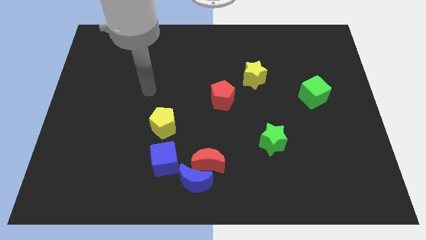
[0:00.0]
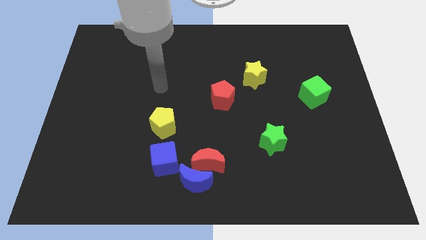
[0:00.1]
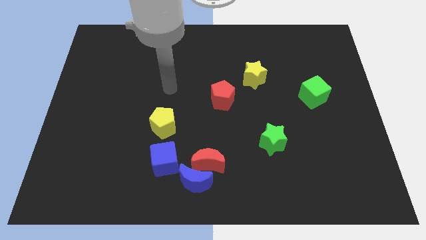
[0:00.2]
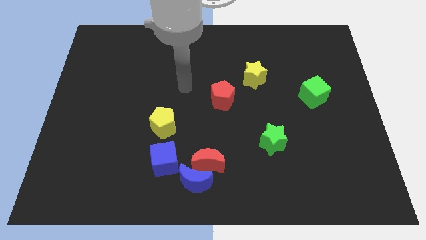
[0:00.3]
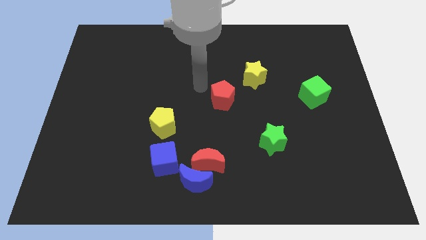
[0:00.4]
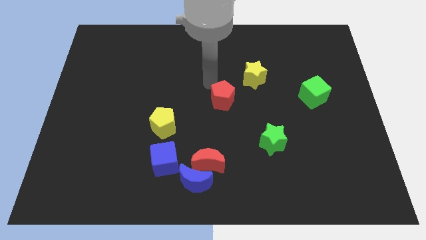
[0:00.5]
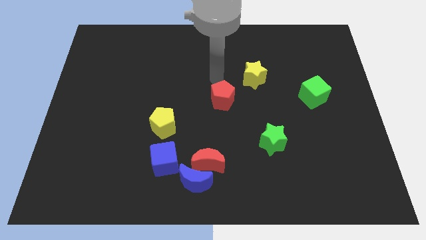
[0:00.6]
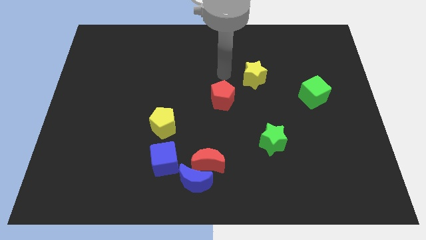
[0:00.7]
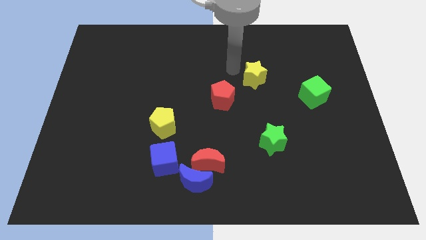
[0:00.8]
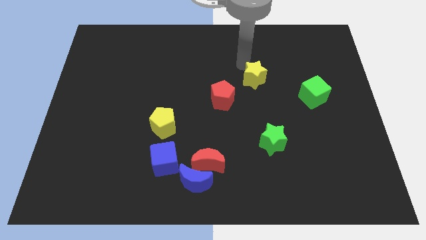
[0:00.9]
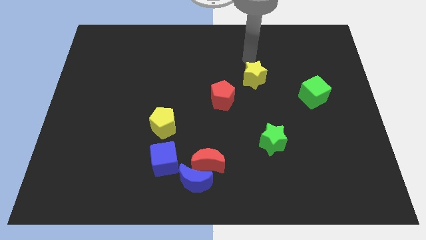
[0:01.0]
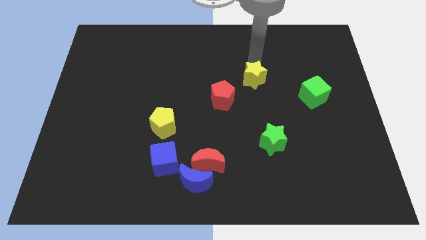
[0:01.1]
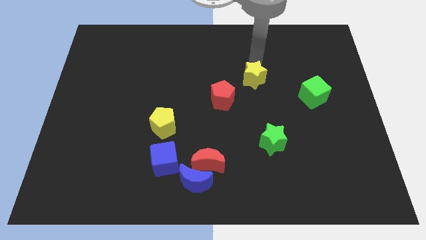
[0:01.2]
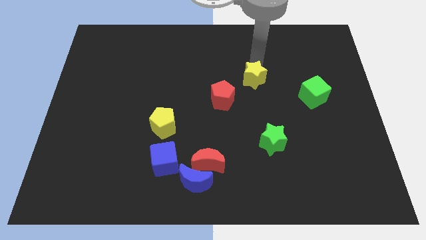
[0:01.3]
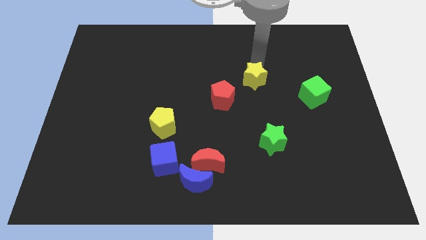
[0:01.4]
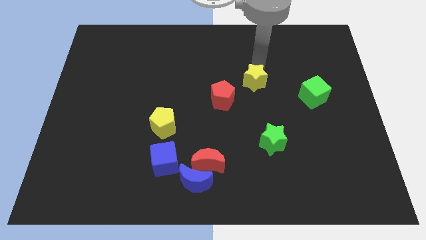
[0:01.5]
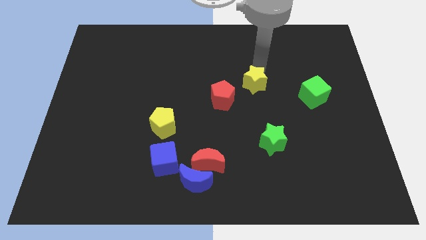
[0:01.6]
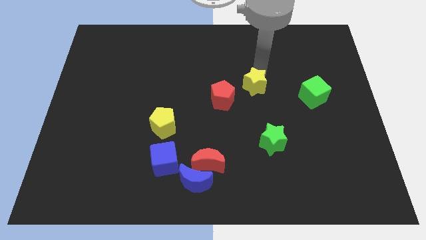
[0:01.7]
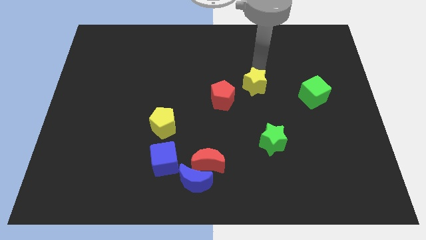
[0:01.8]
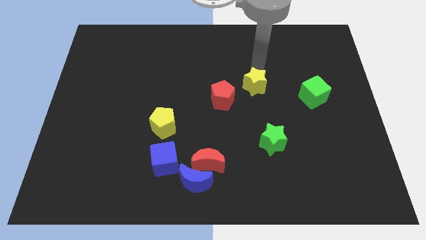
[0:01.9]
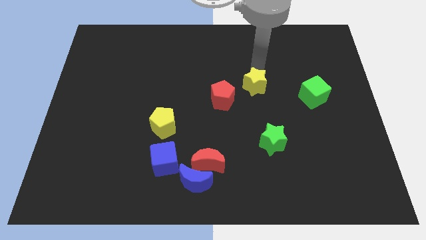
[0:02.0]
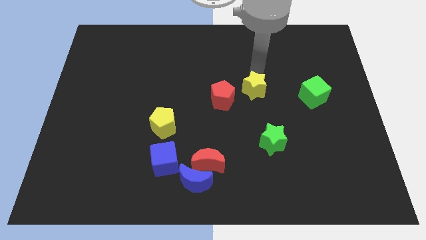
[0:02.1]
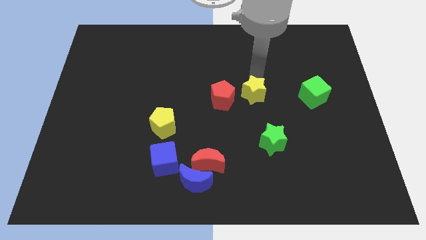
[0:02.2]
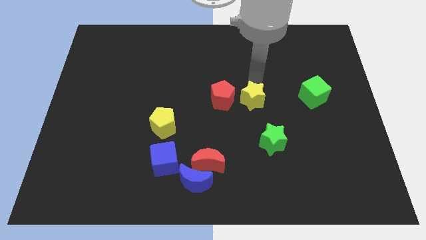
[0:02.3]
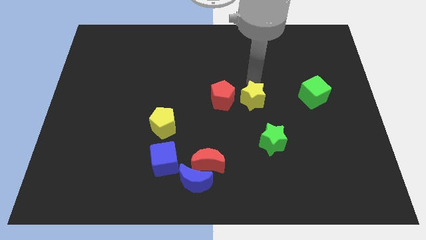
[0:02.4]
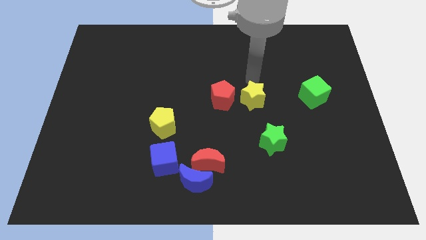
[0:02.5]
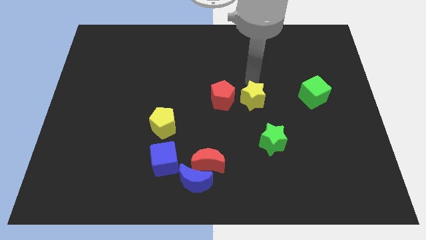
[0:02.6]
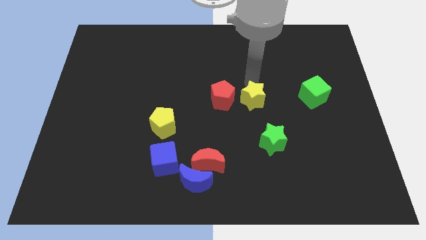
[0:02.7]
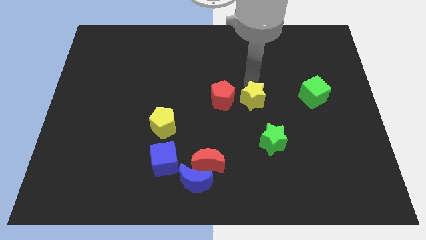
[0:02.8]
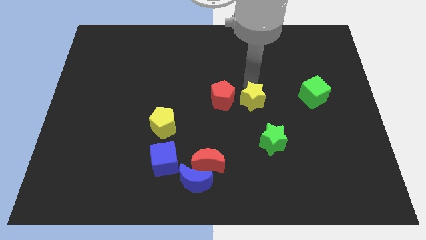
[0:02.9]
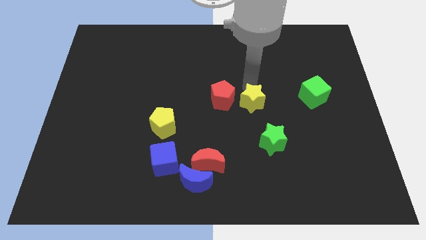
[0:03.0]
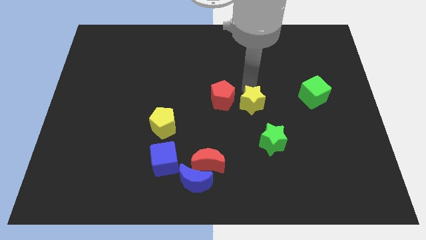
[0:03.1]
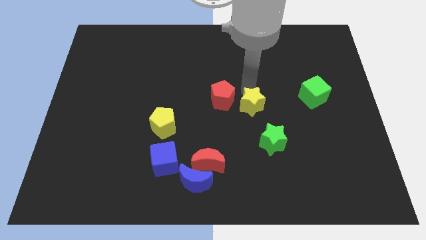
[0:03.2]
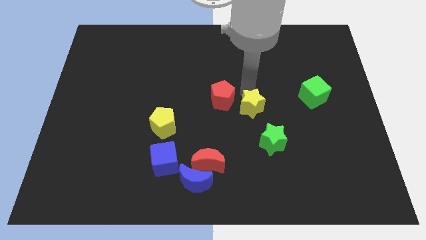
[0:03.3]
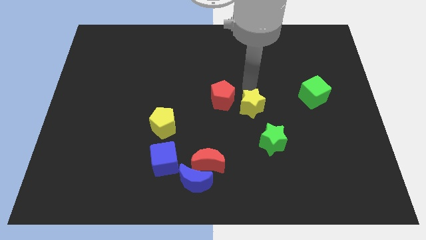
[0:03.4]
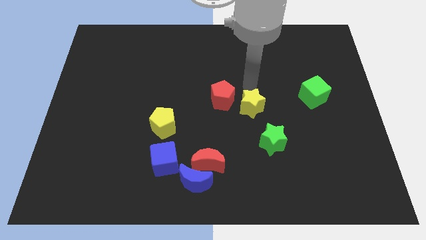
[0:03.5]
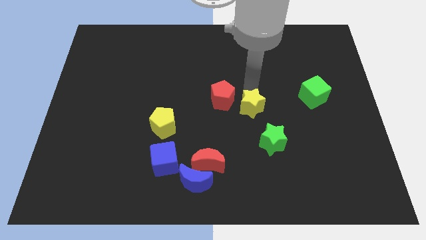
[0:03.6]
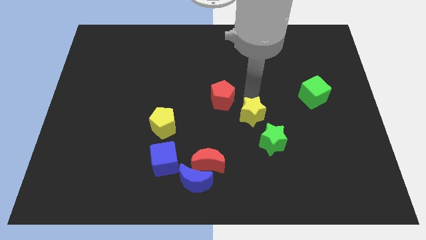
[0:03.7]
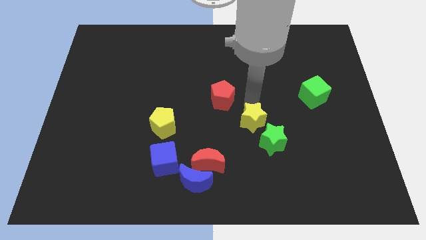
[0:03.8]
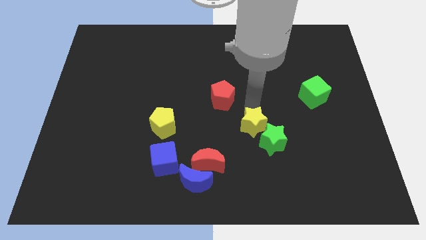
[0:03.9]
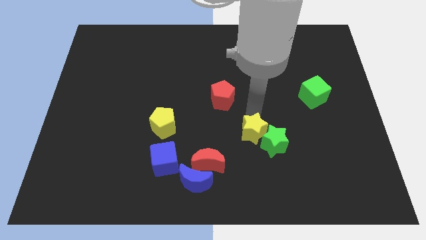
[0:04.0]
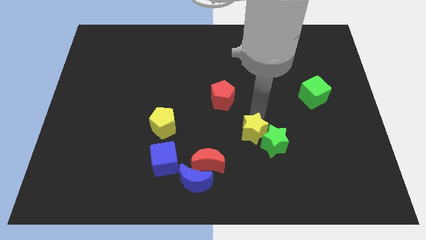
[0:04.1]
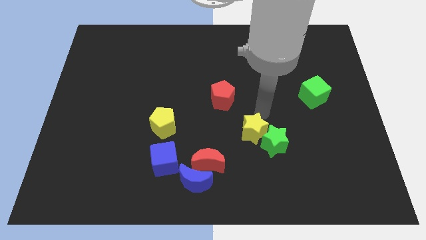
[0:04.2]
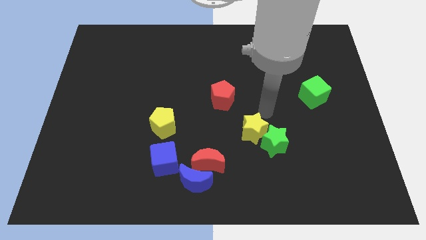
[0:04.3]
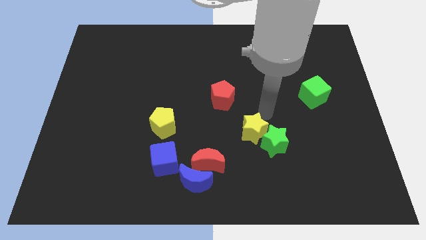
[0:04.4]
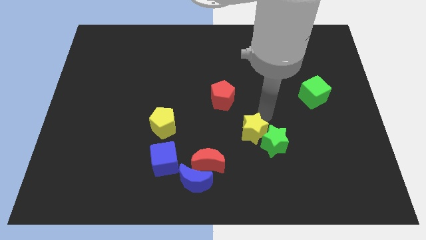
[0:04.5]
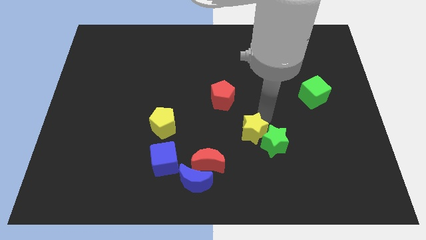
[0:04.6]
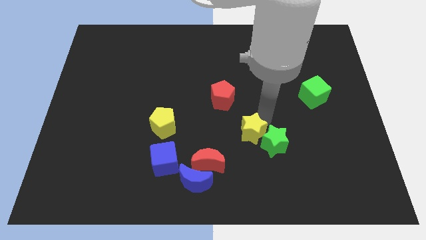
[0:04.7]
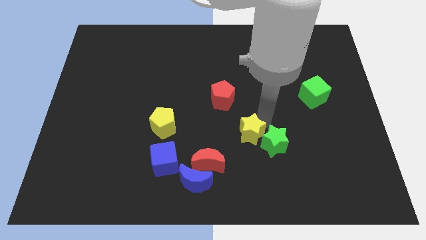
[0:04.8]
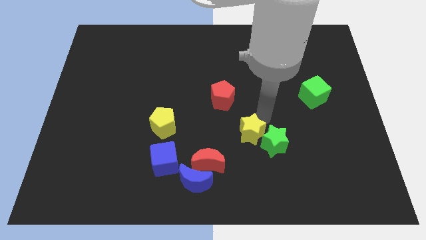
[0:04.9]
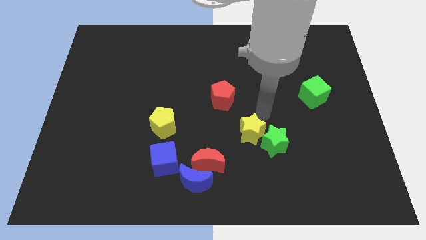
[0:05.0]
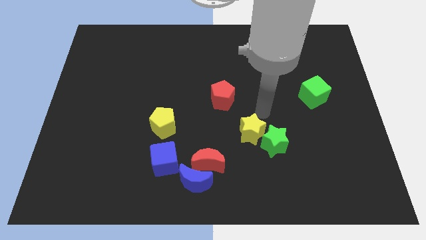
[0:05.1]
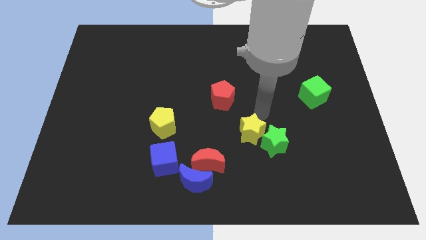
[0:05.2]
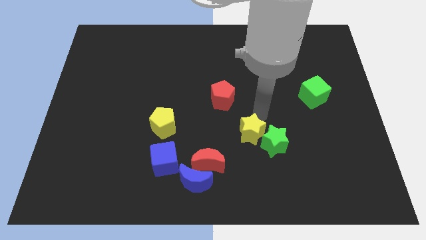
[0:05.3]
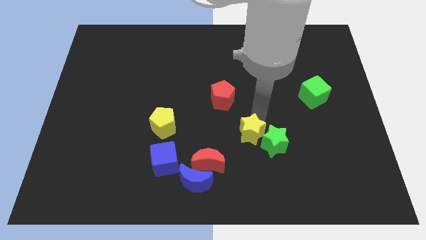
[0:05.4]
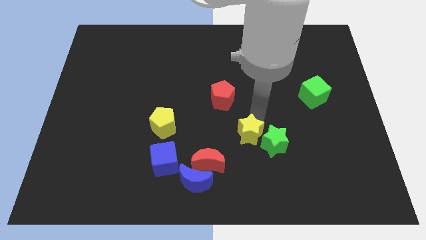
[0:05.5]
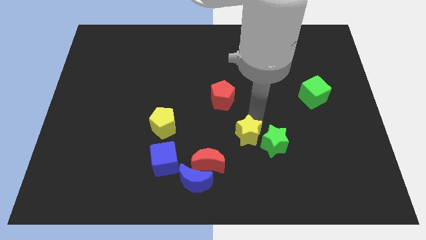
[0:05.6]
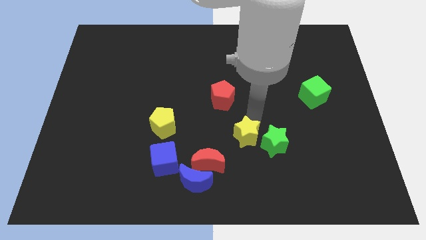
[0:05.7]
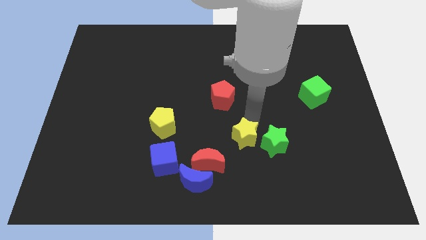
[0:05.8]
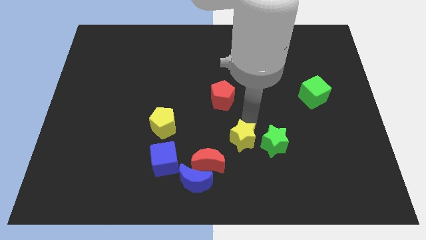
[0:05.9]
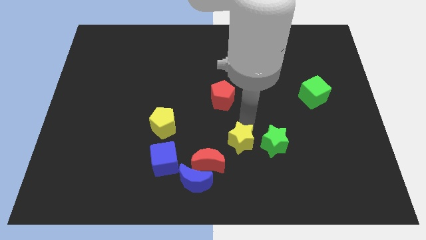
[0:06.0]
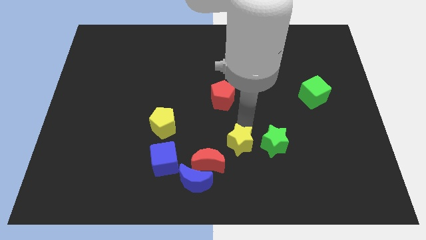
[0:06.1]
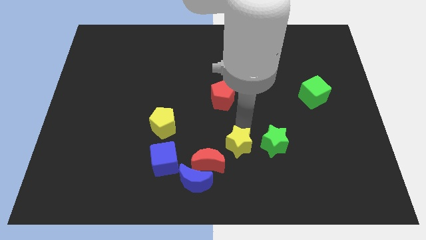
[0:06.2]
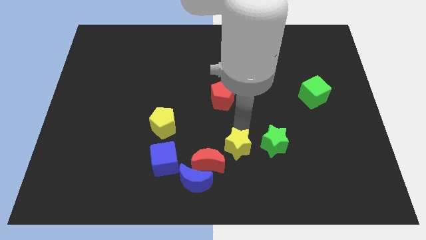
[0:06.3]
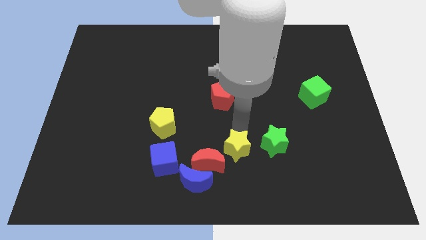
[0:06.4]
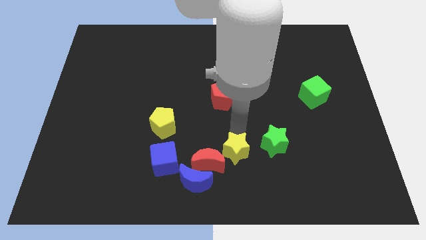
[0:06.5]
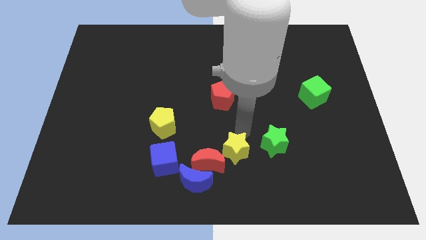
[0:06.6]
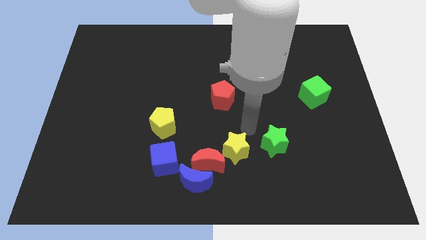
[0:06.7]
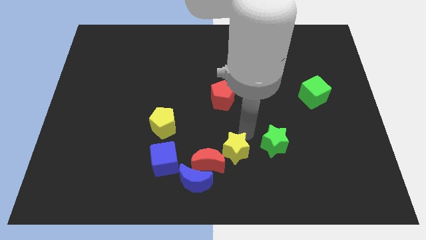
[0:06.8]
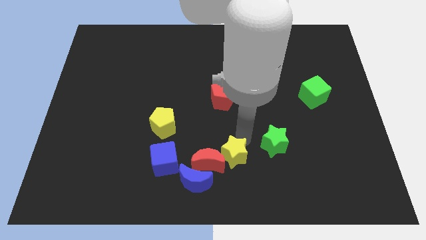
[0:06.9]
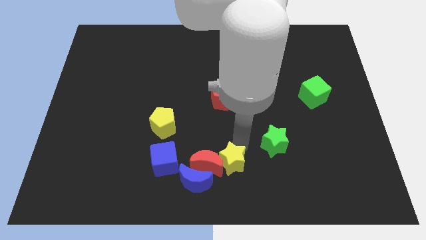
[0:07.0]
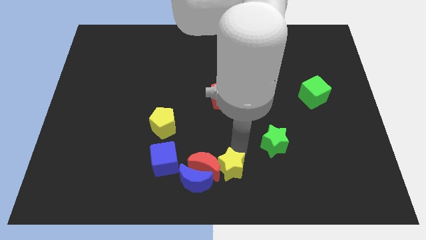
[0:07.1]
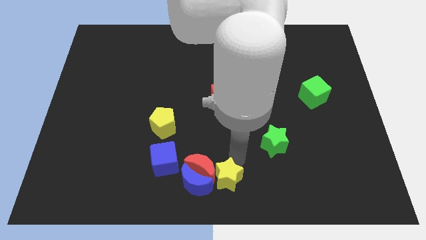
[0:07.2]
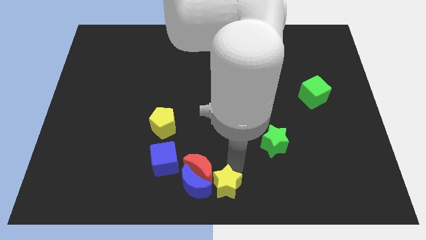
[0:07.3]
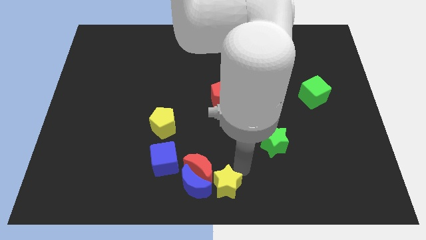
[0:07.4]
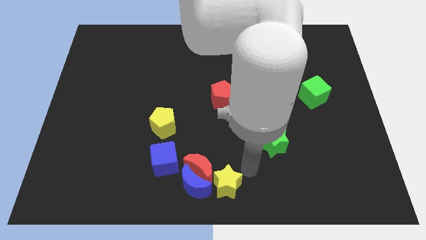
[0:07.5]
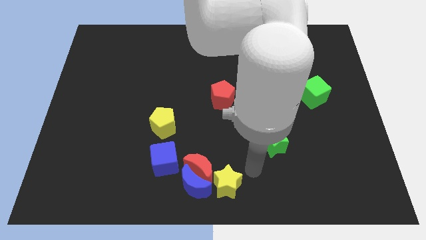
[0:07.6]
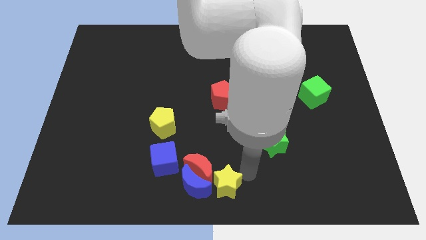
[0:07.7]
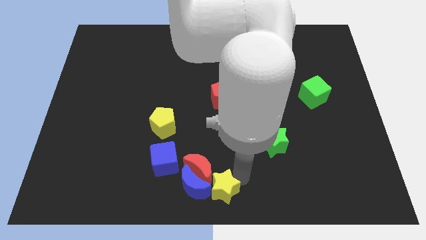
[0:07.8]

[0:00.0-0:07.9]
put the yellow star next to the blue moon
